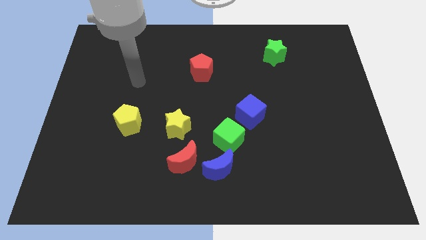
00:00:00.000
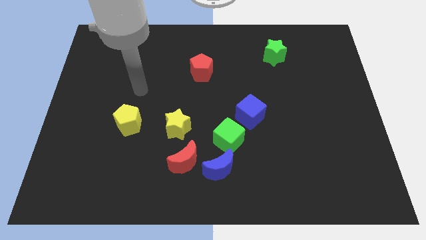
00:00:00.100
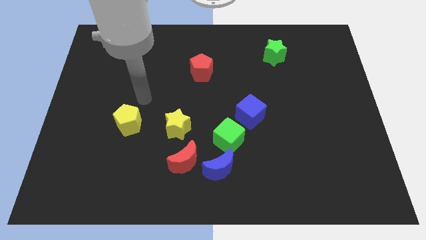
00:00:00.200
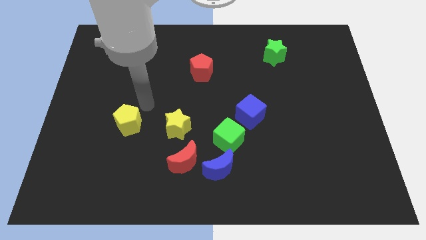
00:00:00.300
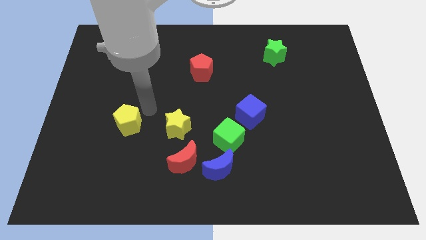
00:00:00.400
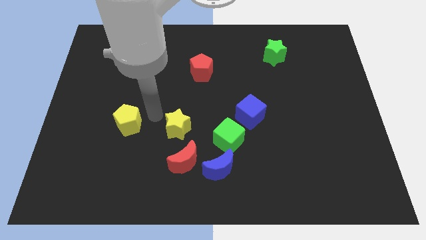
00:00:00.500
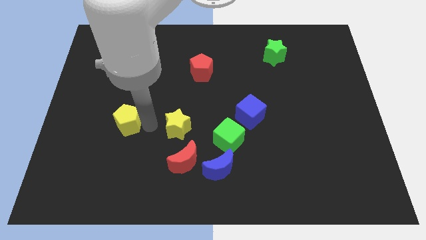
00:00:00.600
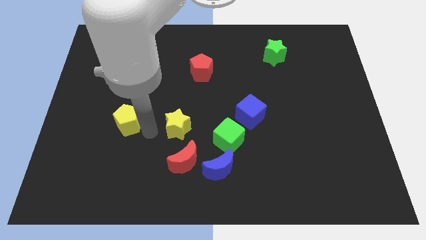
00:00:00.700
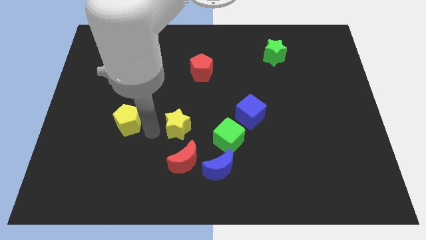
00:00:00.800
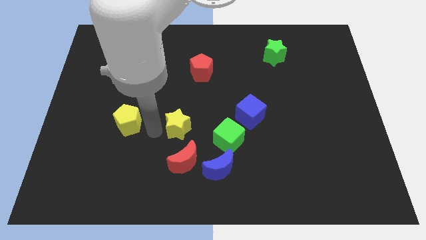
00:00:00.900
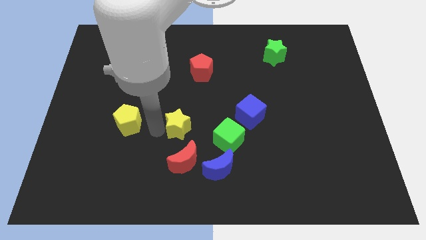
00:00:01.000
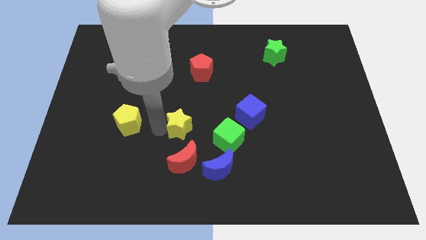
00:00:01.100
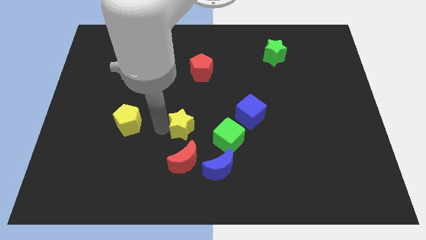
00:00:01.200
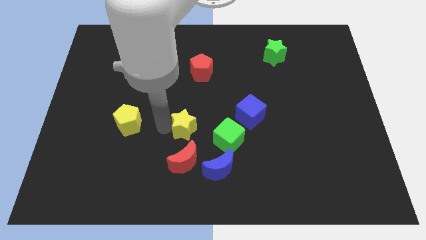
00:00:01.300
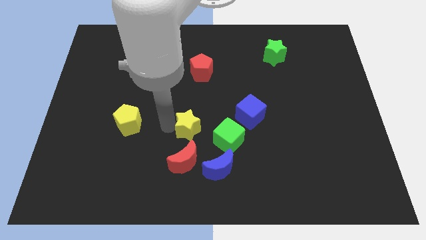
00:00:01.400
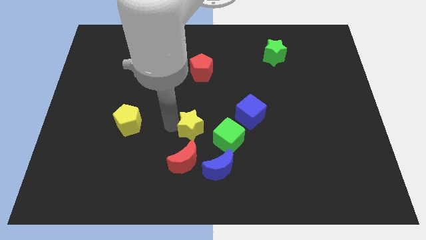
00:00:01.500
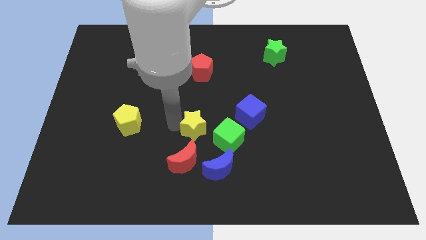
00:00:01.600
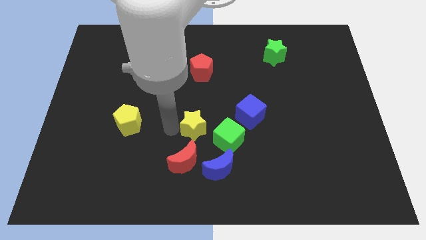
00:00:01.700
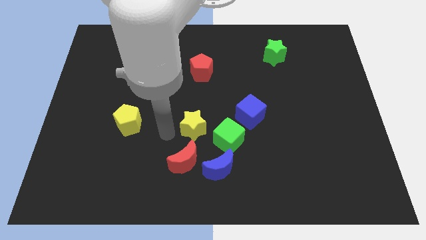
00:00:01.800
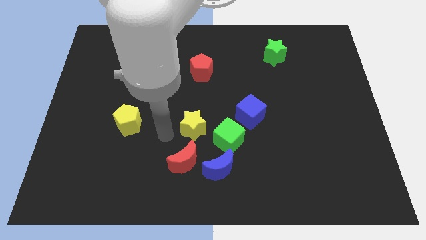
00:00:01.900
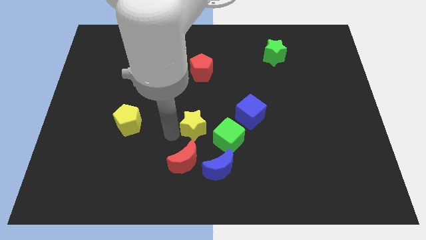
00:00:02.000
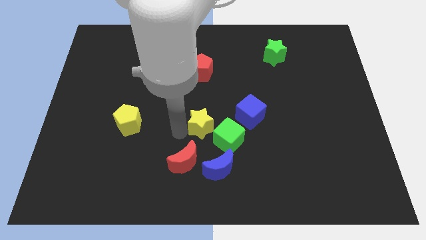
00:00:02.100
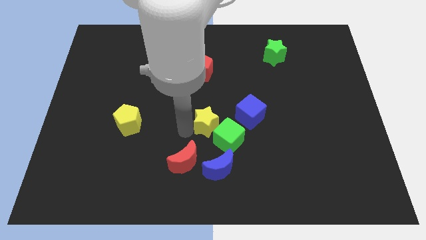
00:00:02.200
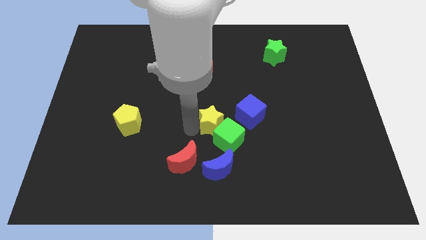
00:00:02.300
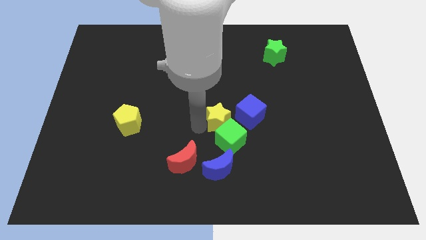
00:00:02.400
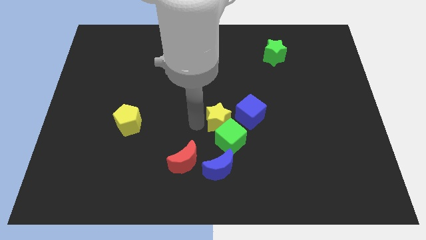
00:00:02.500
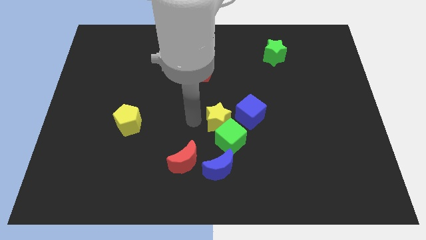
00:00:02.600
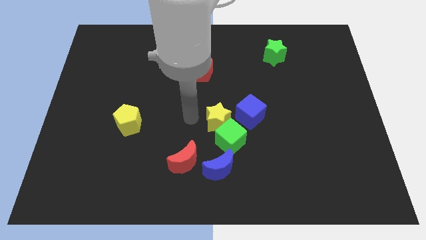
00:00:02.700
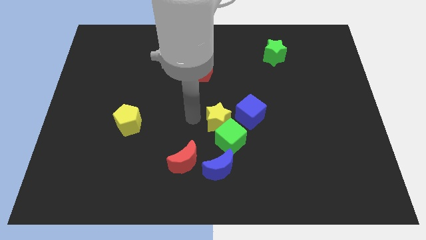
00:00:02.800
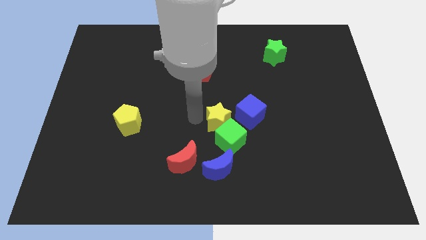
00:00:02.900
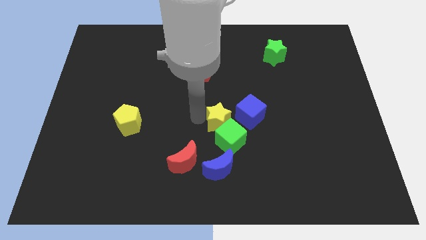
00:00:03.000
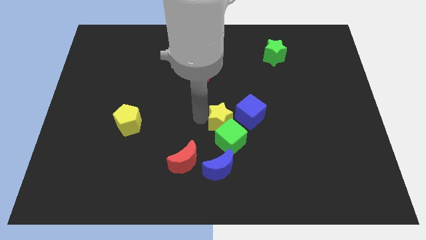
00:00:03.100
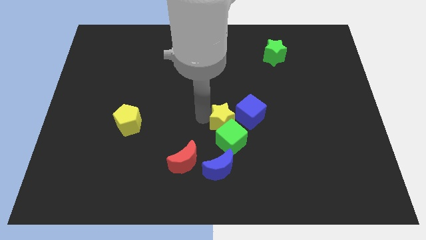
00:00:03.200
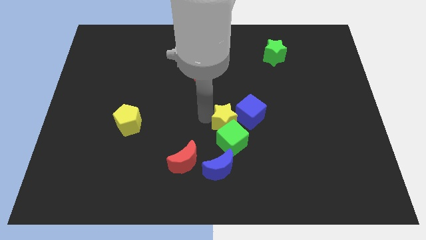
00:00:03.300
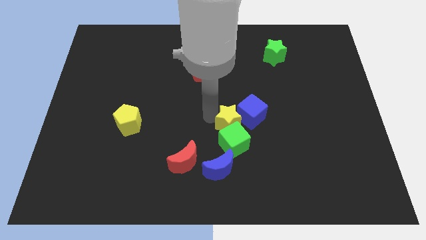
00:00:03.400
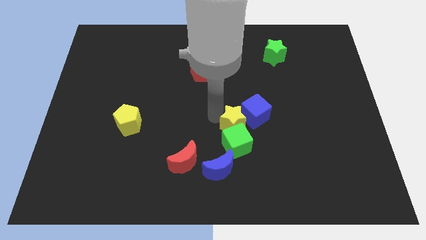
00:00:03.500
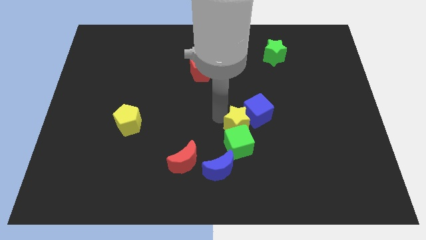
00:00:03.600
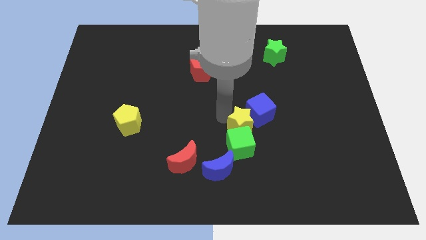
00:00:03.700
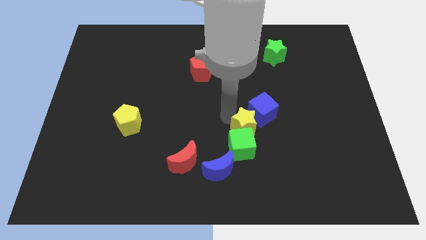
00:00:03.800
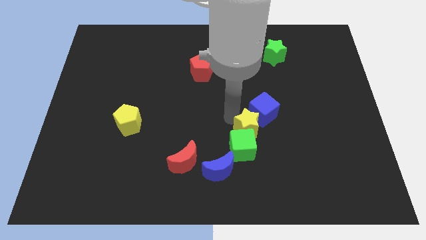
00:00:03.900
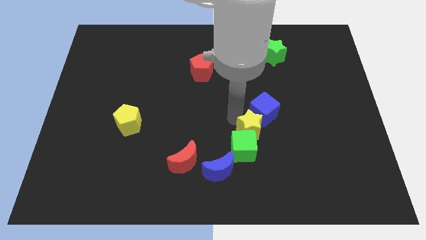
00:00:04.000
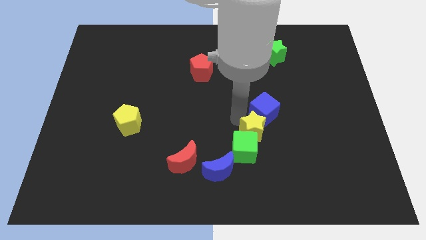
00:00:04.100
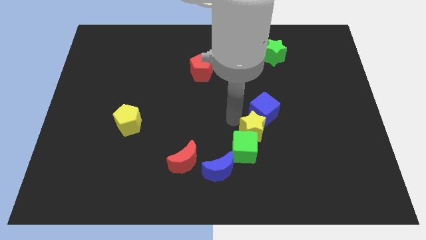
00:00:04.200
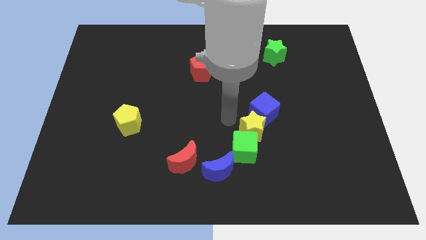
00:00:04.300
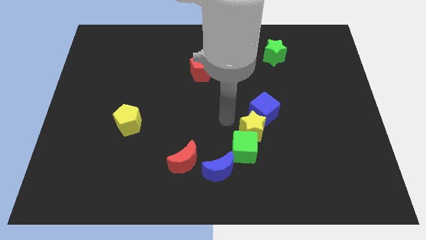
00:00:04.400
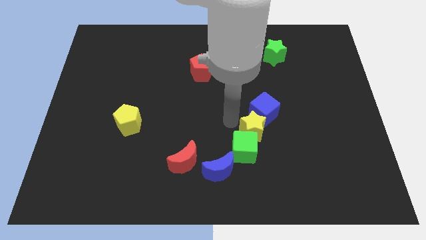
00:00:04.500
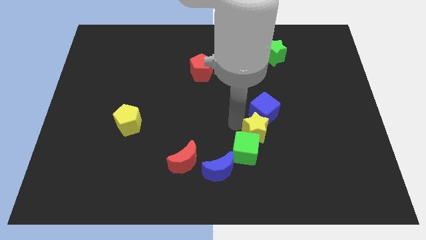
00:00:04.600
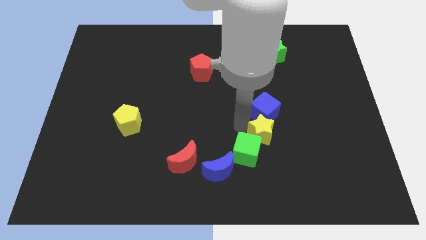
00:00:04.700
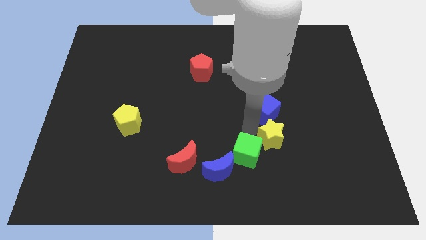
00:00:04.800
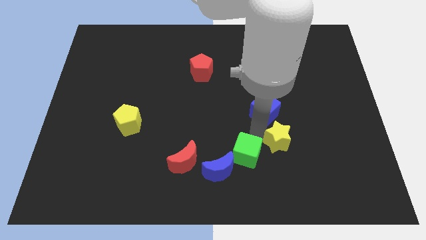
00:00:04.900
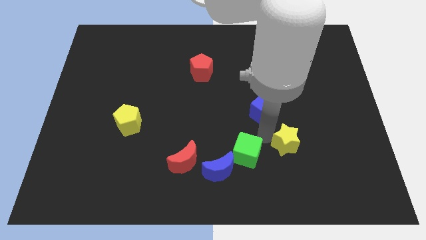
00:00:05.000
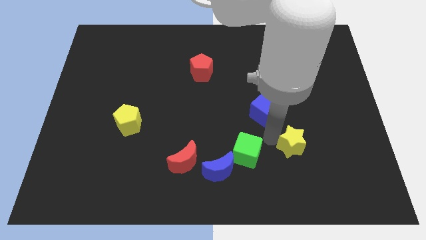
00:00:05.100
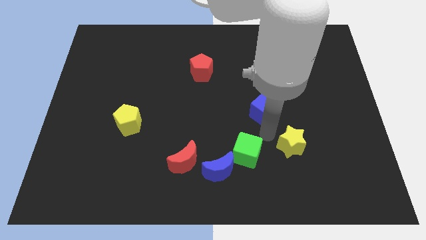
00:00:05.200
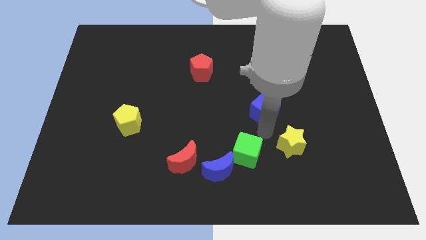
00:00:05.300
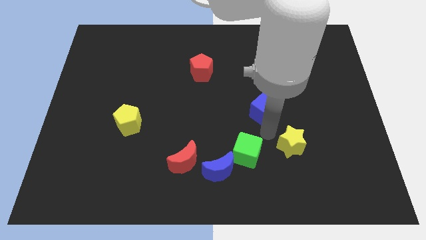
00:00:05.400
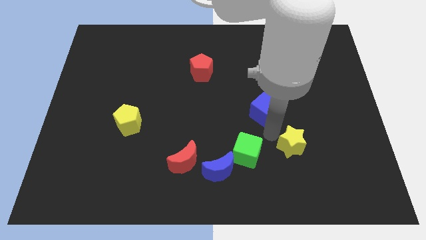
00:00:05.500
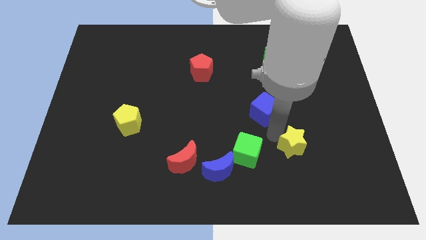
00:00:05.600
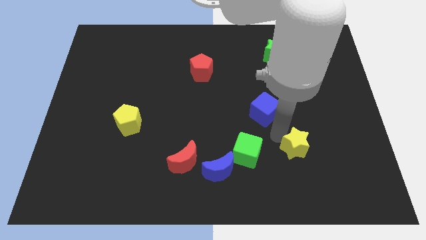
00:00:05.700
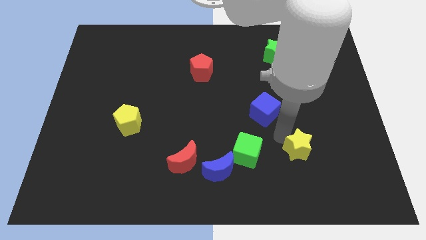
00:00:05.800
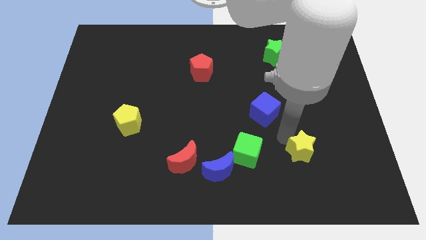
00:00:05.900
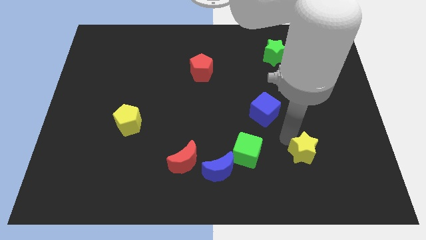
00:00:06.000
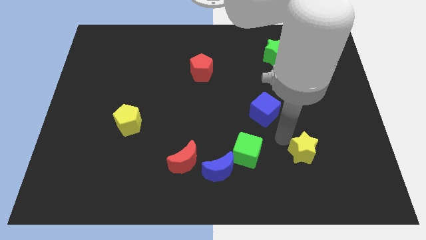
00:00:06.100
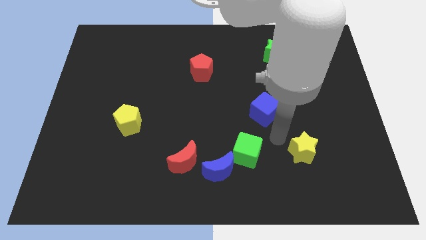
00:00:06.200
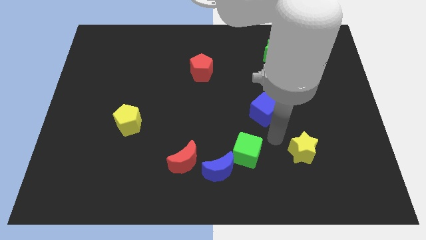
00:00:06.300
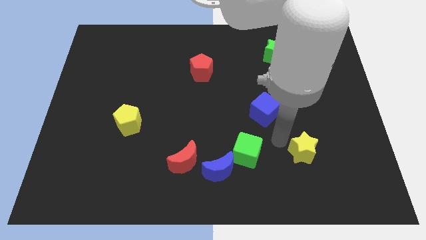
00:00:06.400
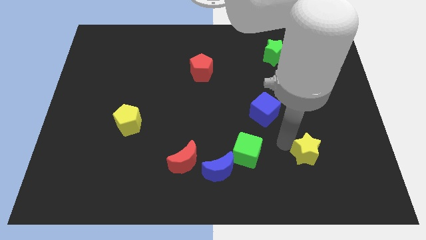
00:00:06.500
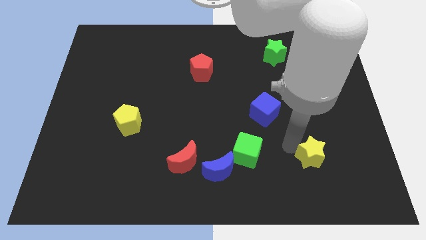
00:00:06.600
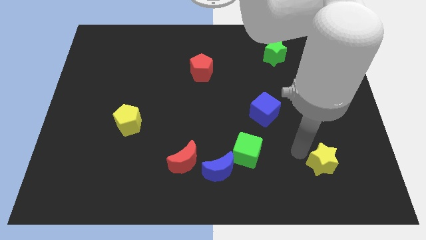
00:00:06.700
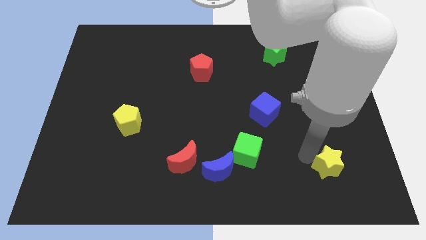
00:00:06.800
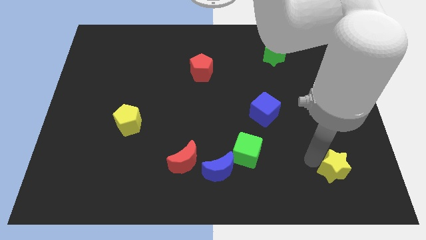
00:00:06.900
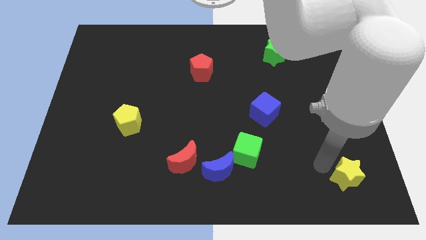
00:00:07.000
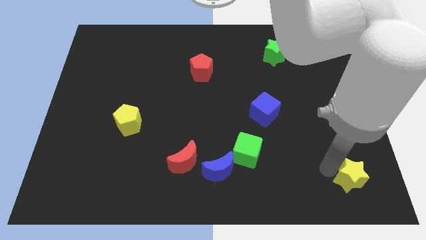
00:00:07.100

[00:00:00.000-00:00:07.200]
move the yellow star to the lower right corner
